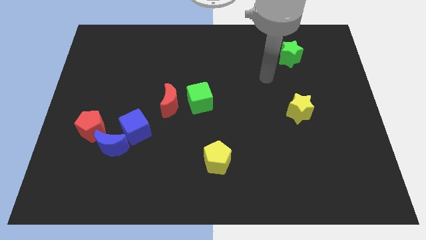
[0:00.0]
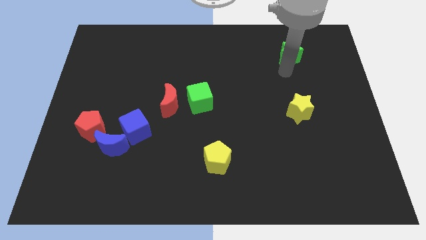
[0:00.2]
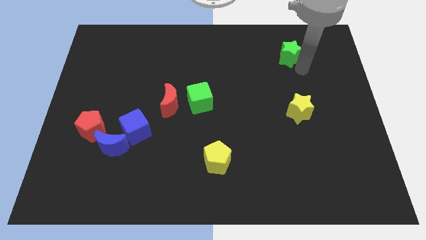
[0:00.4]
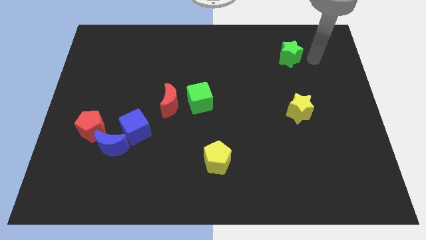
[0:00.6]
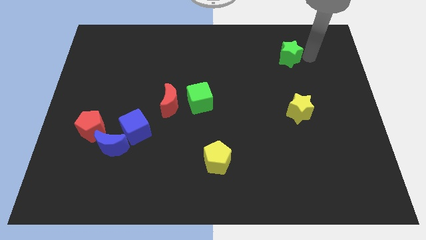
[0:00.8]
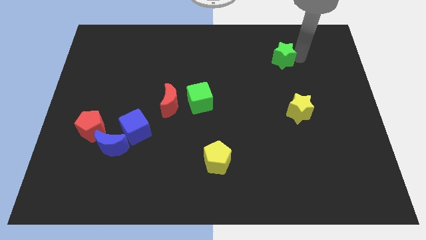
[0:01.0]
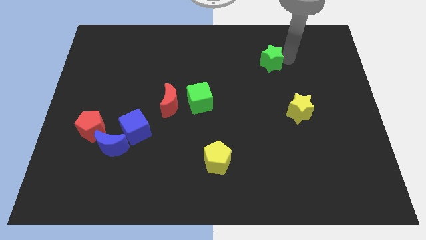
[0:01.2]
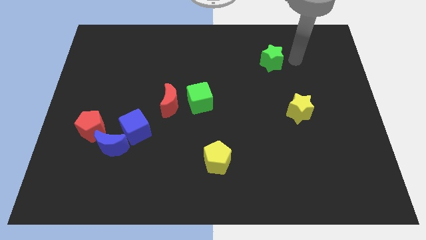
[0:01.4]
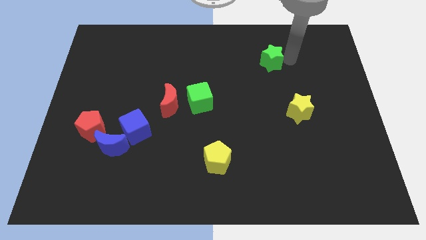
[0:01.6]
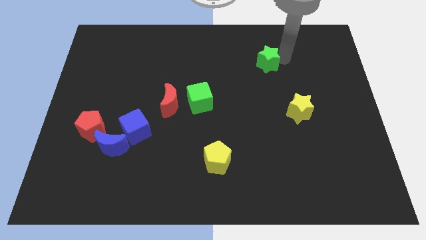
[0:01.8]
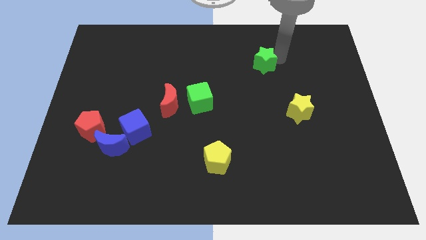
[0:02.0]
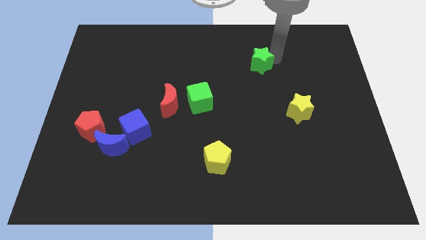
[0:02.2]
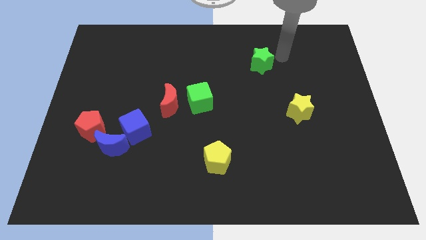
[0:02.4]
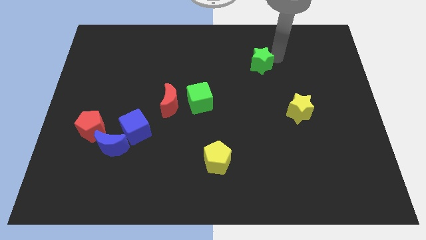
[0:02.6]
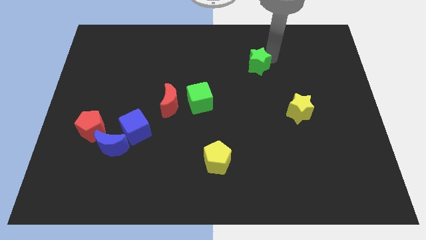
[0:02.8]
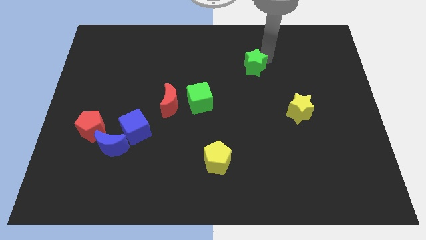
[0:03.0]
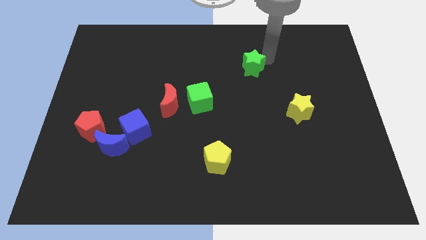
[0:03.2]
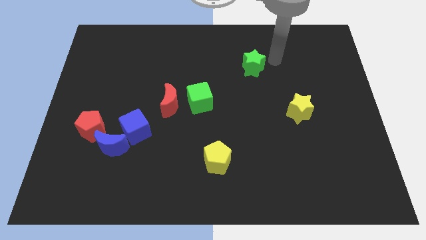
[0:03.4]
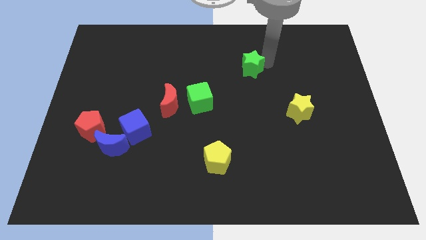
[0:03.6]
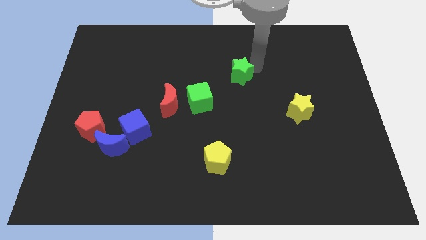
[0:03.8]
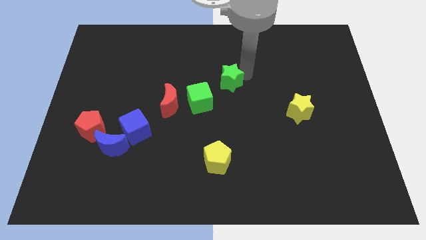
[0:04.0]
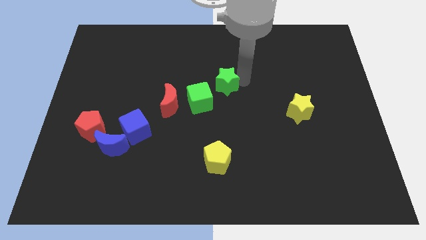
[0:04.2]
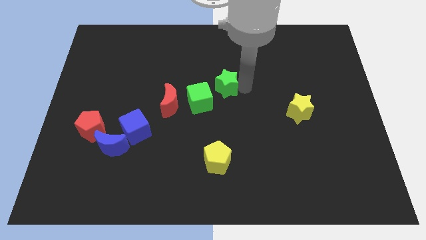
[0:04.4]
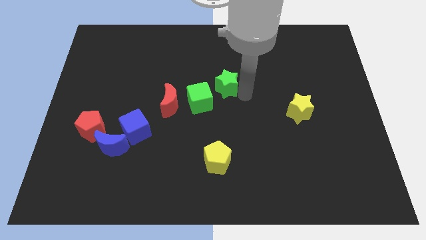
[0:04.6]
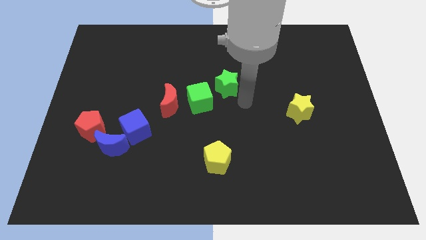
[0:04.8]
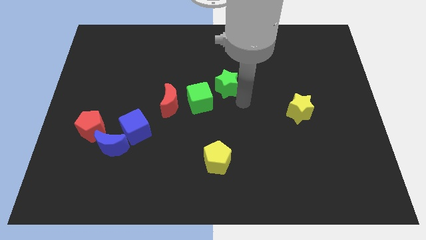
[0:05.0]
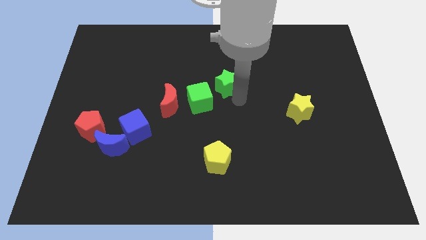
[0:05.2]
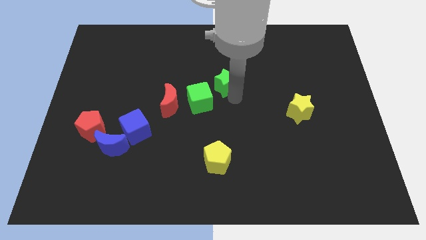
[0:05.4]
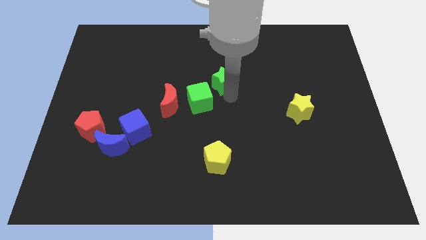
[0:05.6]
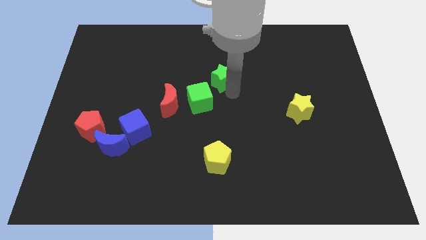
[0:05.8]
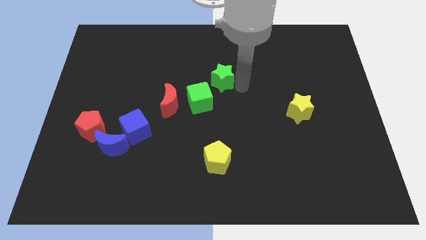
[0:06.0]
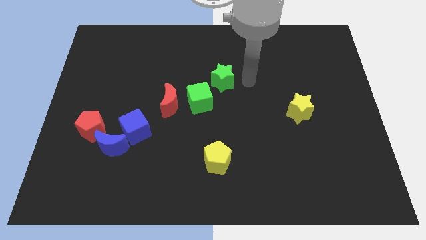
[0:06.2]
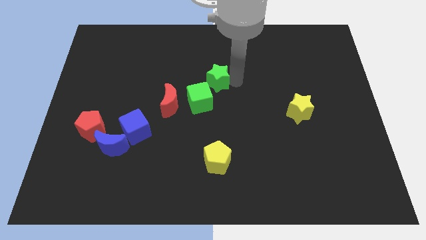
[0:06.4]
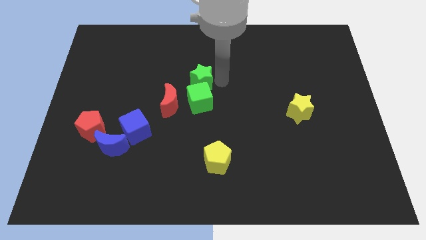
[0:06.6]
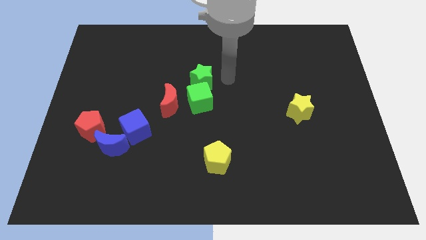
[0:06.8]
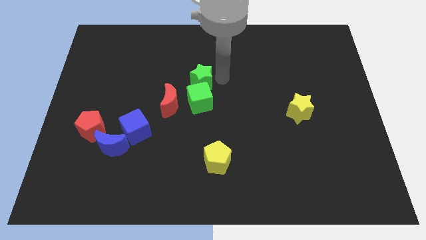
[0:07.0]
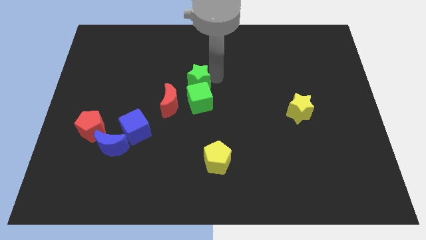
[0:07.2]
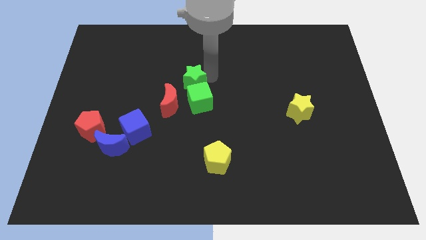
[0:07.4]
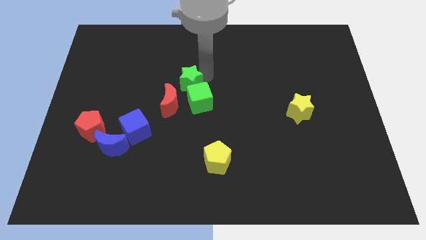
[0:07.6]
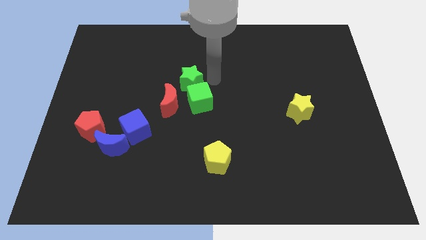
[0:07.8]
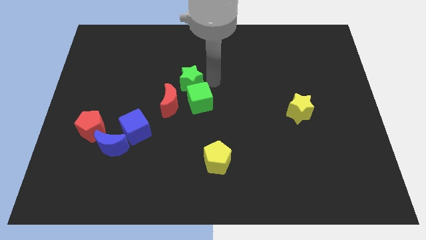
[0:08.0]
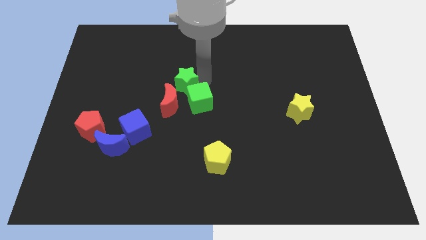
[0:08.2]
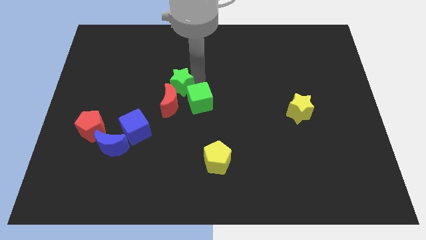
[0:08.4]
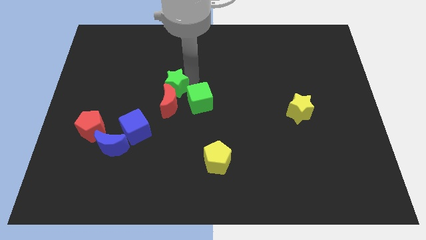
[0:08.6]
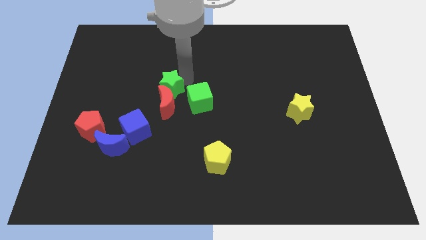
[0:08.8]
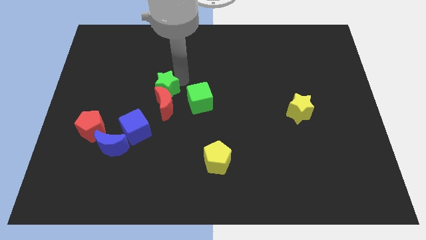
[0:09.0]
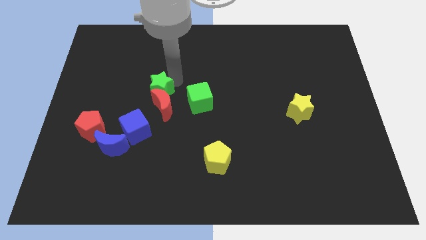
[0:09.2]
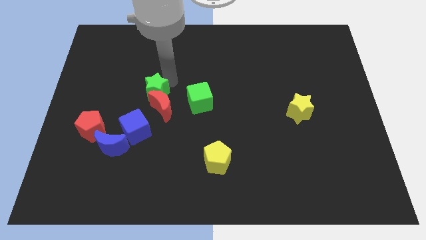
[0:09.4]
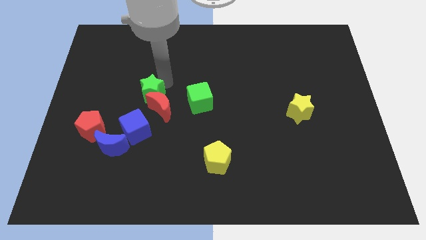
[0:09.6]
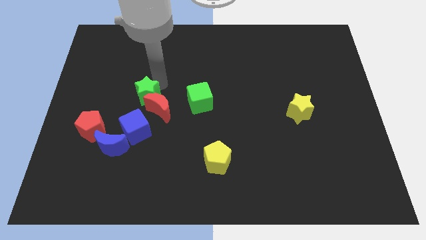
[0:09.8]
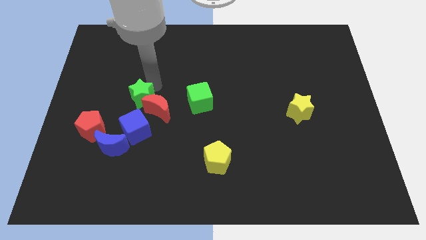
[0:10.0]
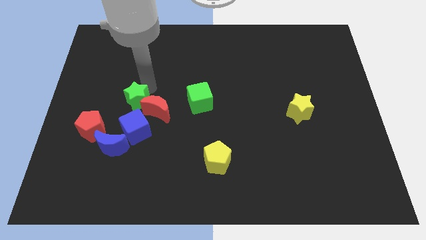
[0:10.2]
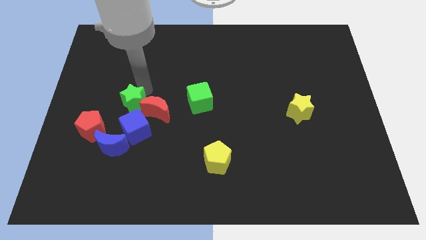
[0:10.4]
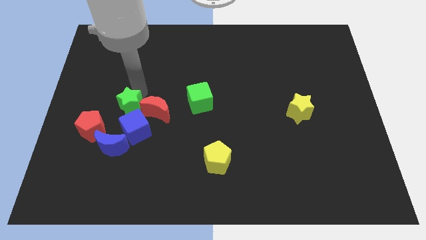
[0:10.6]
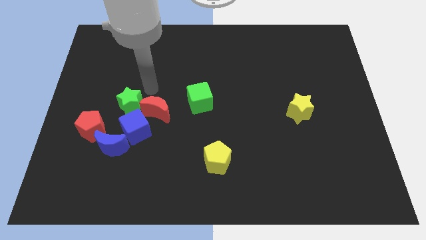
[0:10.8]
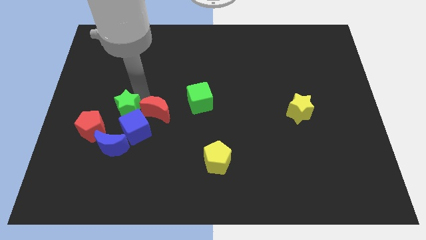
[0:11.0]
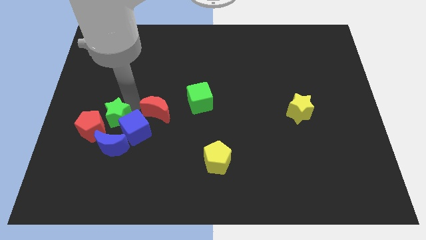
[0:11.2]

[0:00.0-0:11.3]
push the green star next to the red pentagon

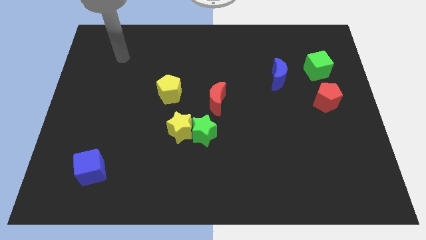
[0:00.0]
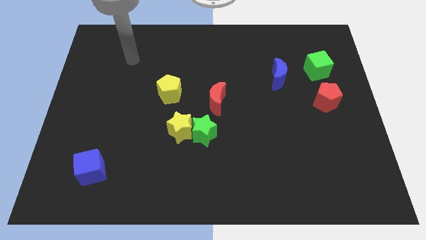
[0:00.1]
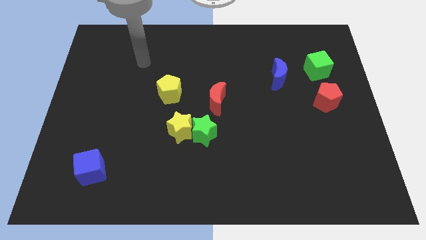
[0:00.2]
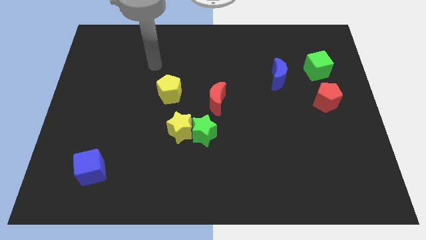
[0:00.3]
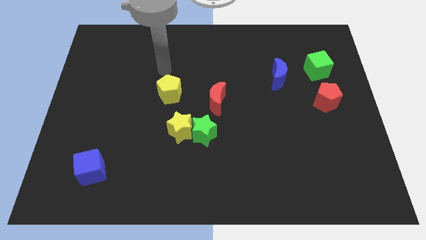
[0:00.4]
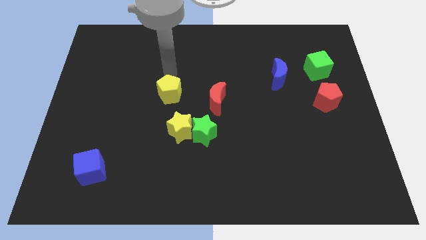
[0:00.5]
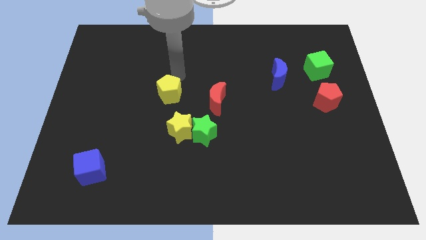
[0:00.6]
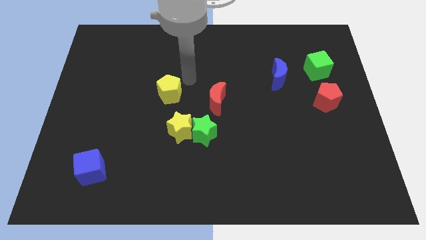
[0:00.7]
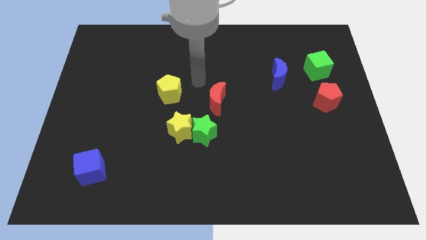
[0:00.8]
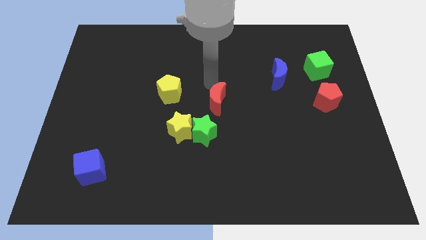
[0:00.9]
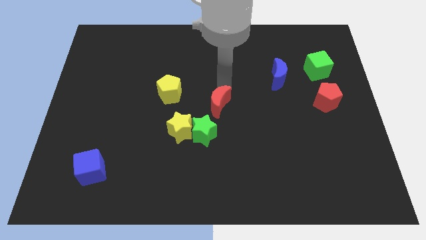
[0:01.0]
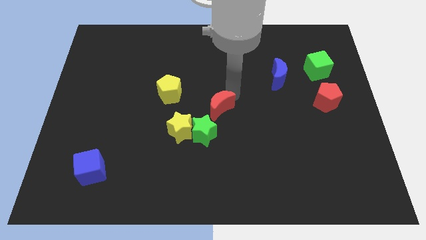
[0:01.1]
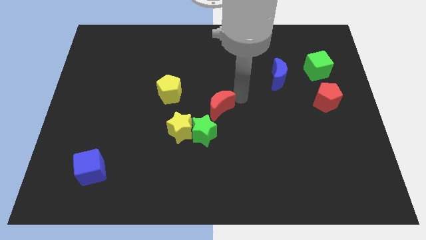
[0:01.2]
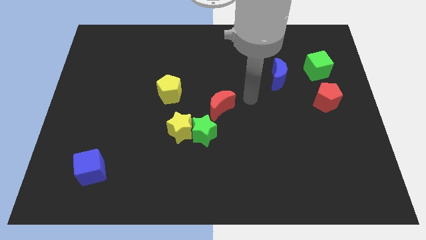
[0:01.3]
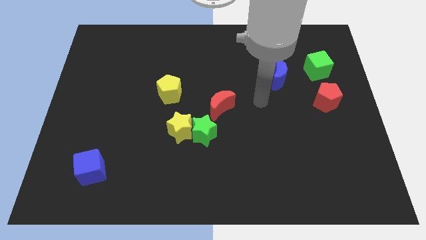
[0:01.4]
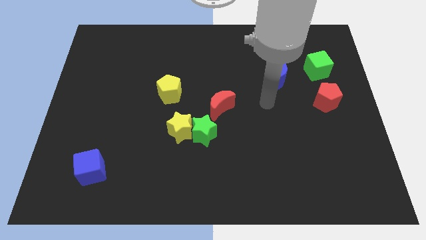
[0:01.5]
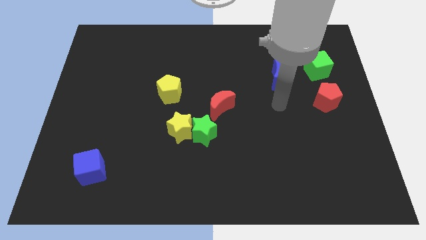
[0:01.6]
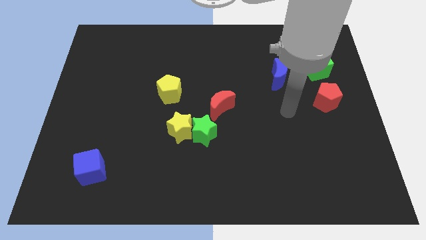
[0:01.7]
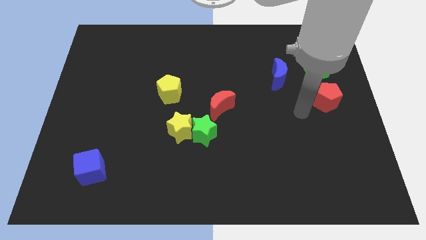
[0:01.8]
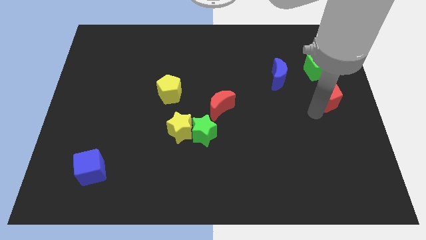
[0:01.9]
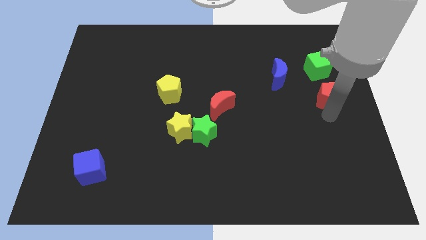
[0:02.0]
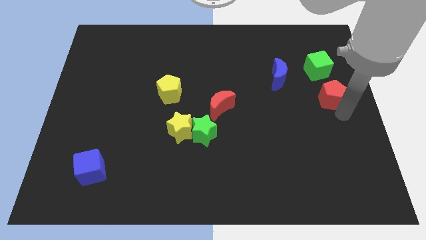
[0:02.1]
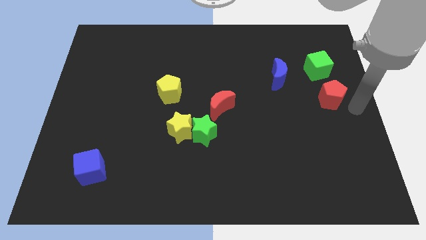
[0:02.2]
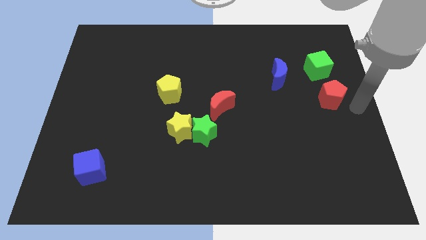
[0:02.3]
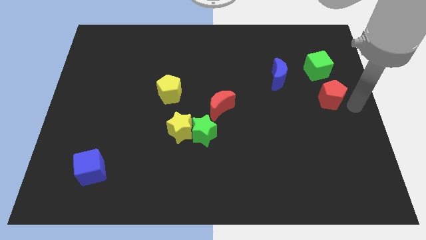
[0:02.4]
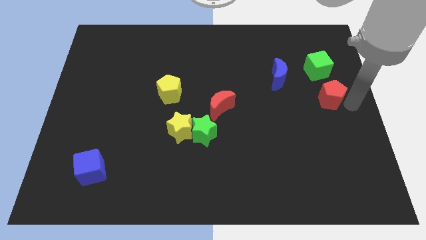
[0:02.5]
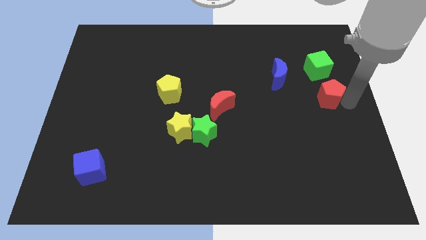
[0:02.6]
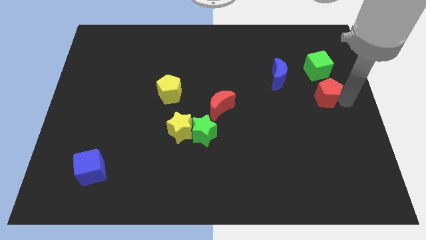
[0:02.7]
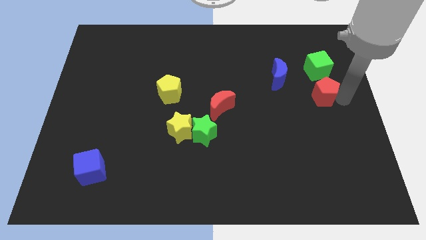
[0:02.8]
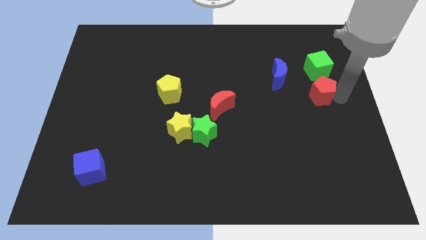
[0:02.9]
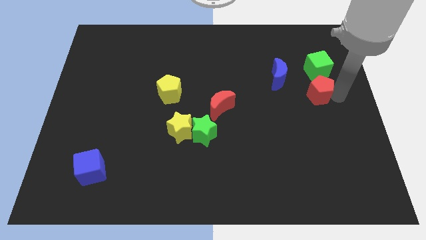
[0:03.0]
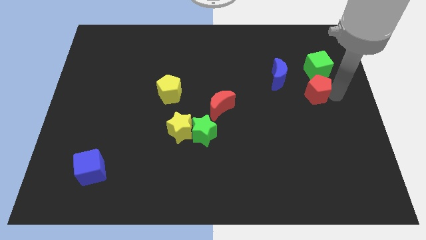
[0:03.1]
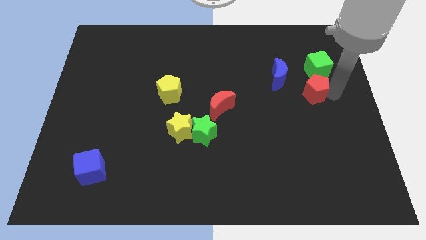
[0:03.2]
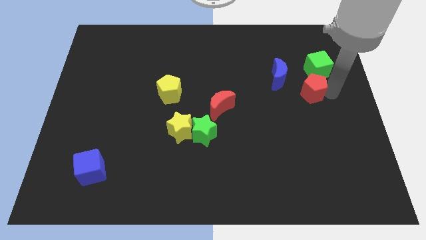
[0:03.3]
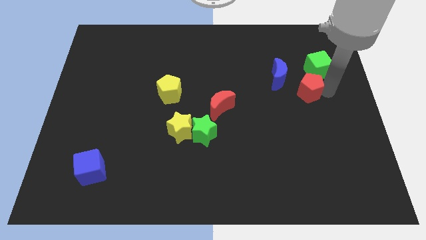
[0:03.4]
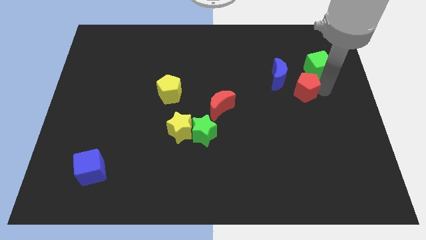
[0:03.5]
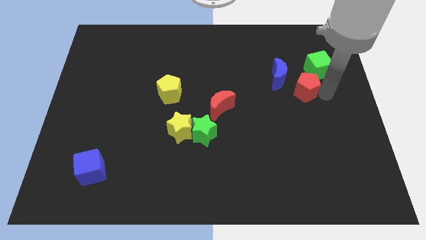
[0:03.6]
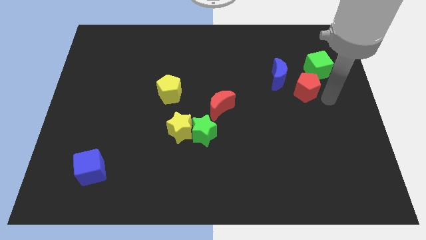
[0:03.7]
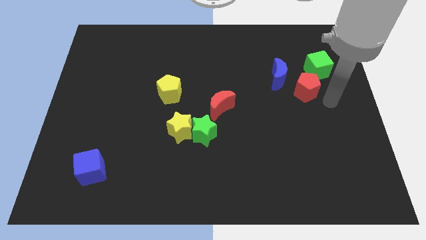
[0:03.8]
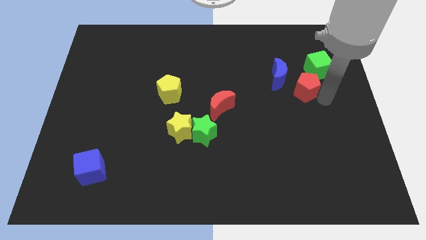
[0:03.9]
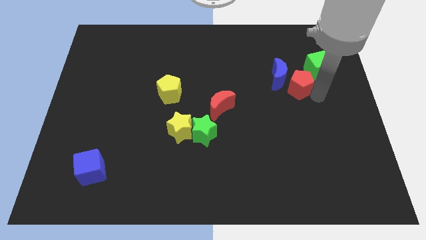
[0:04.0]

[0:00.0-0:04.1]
put the red pentagon close to the blue moon
